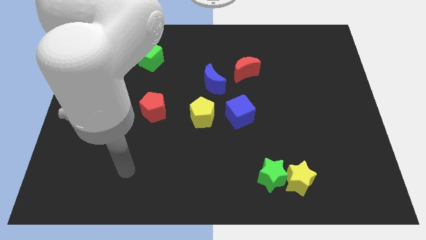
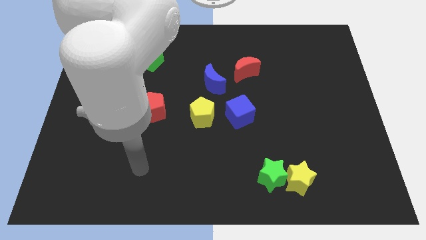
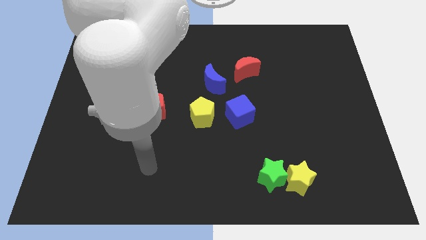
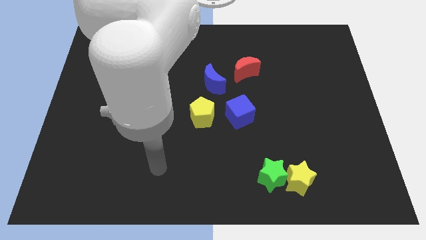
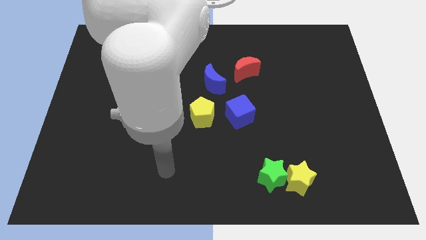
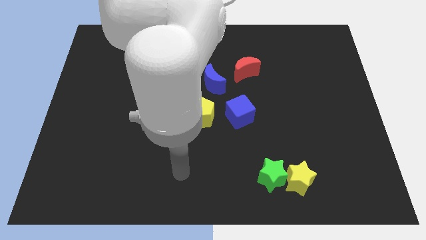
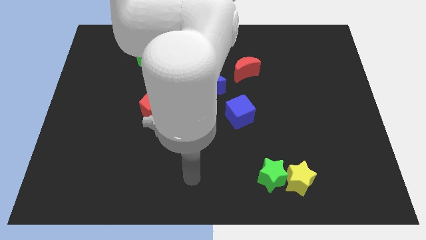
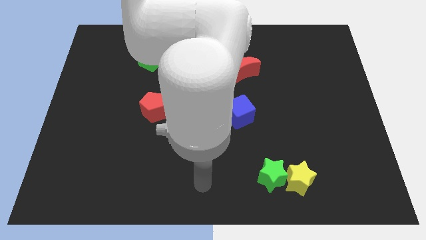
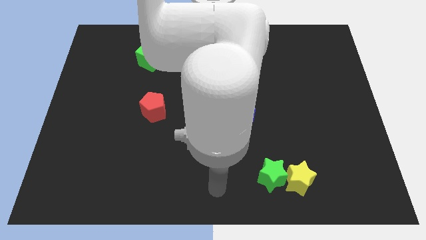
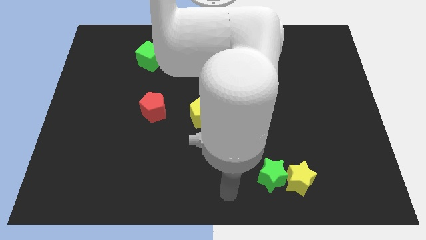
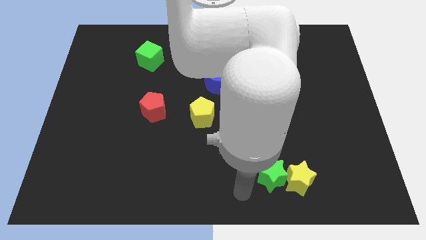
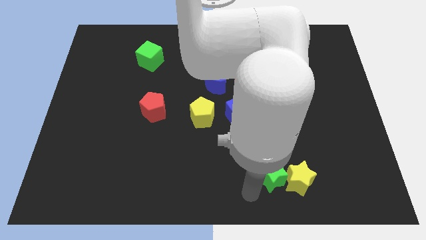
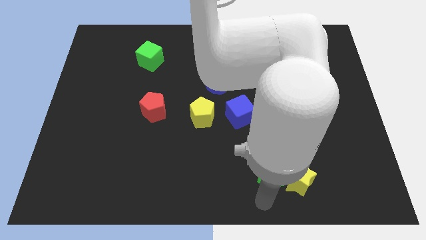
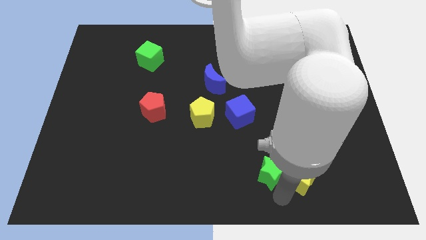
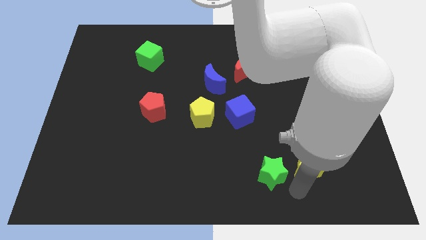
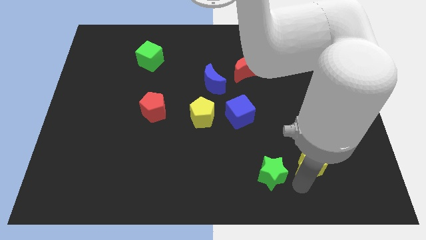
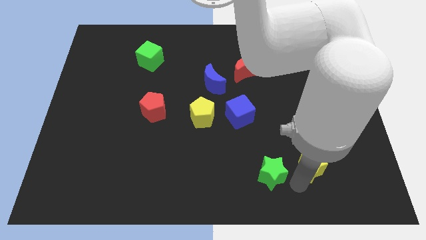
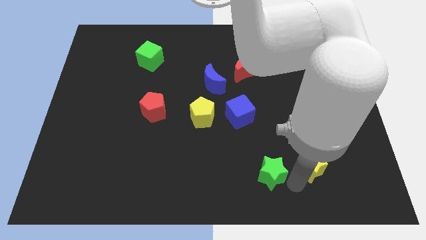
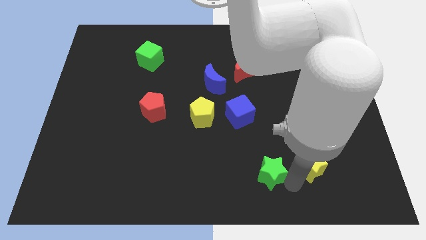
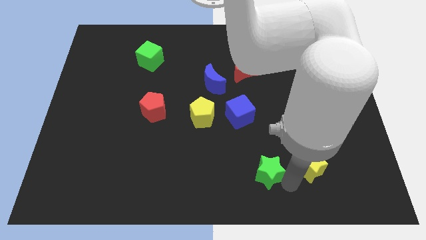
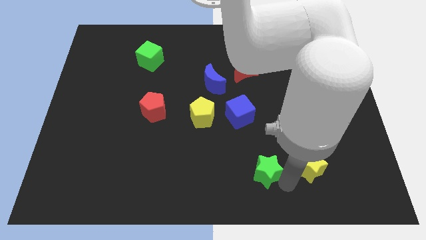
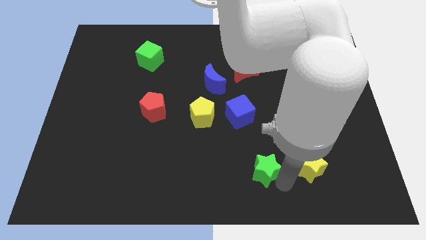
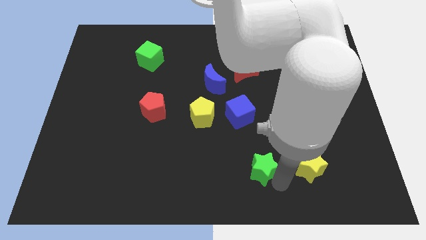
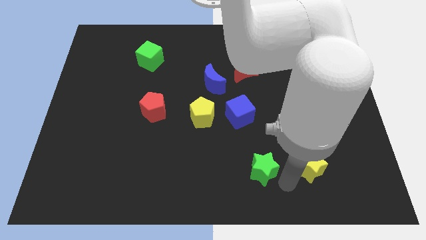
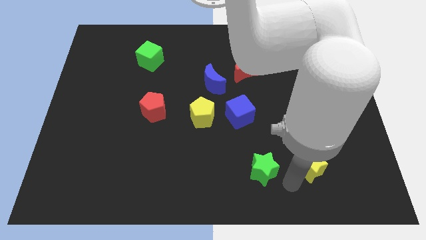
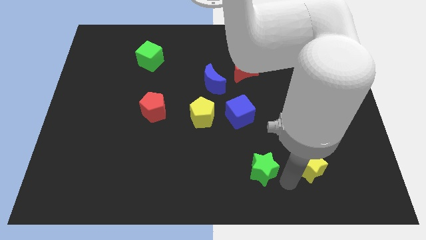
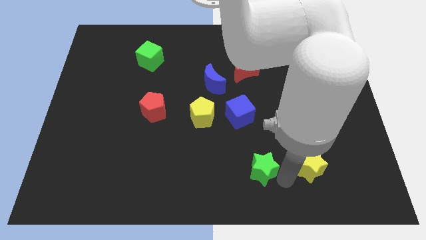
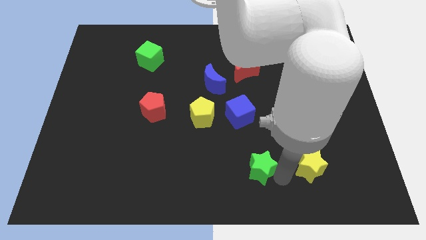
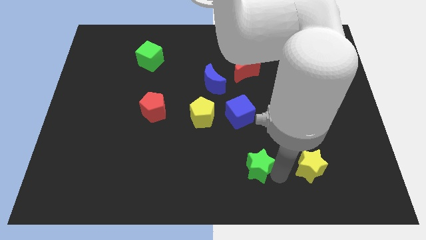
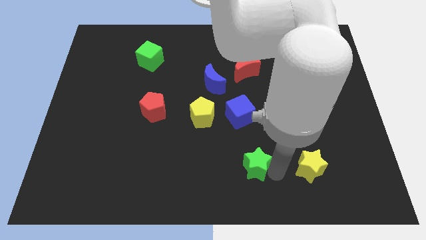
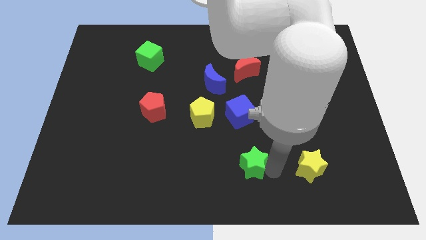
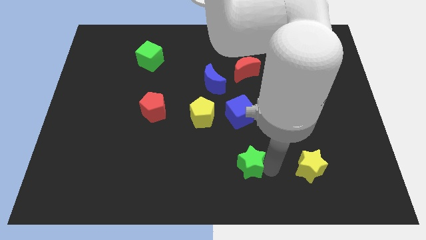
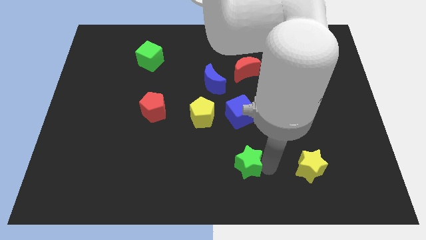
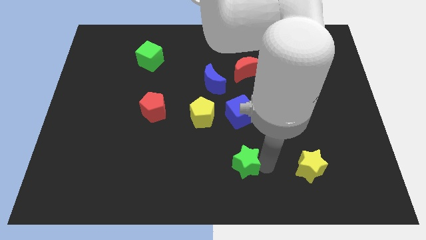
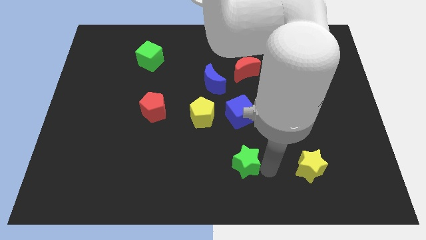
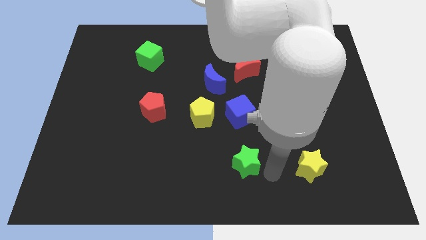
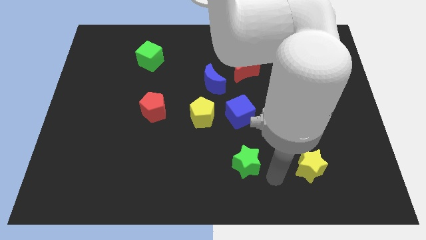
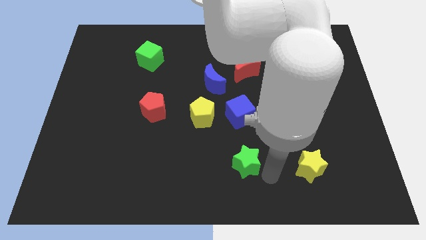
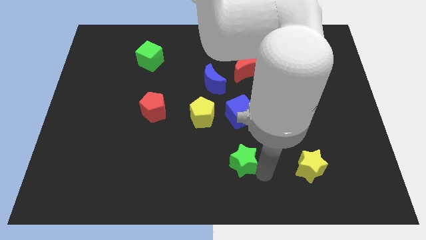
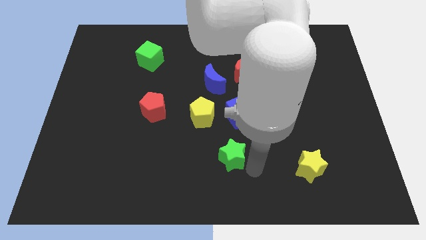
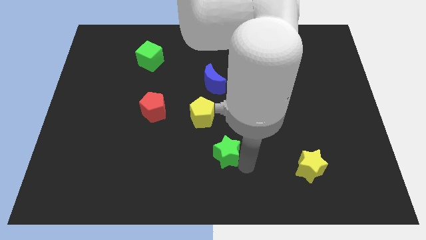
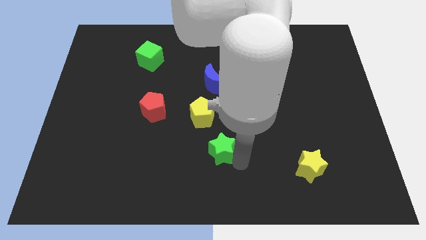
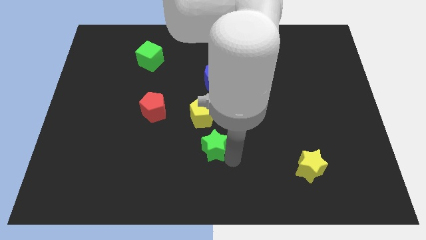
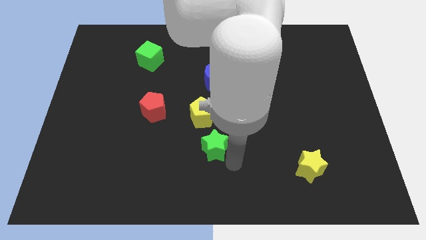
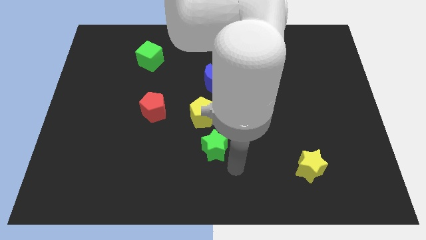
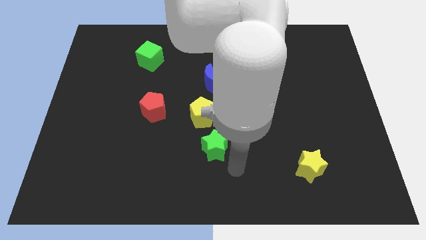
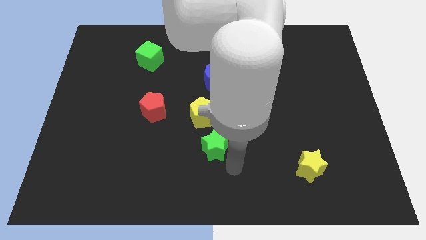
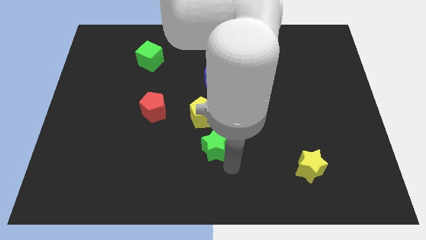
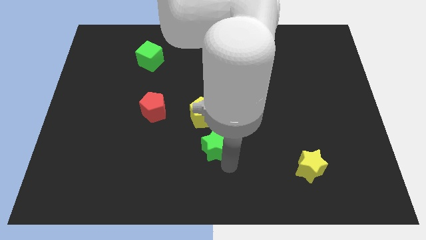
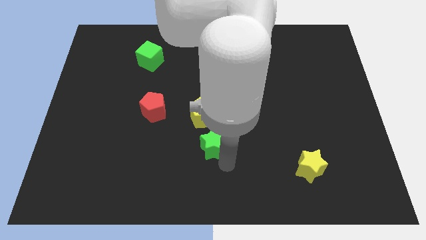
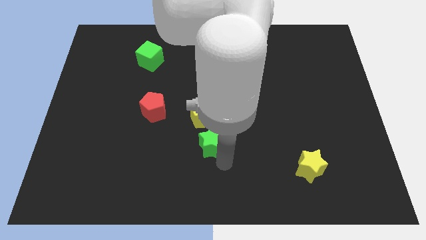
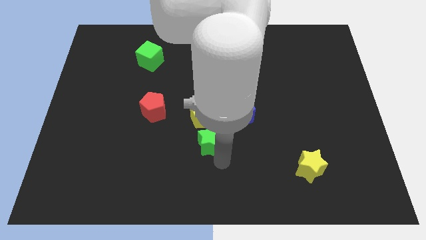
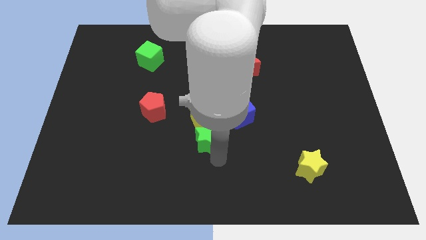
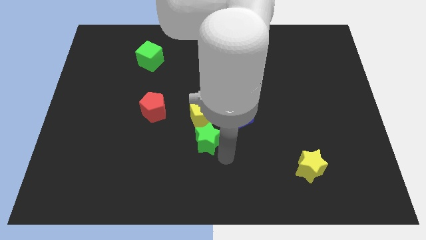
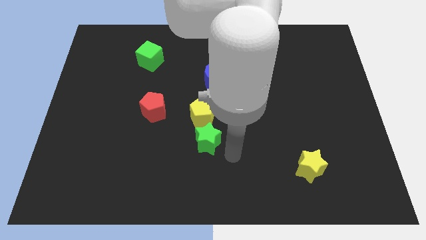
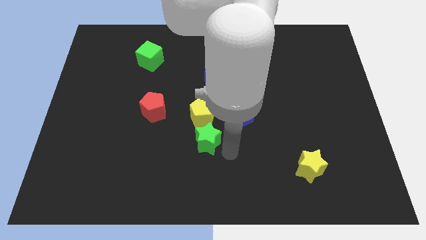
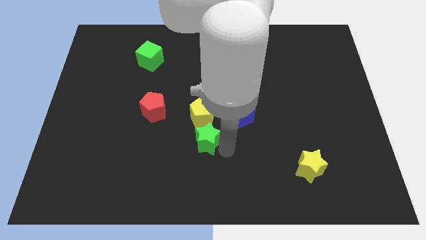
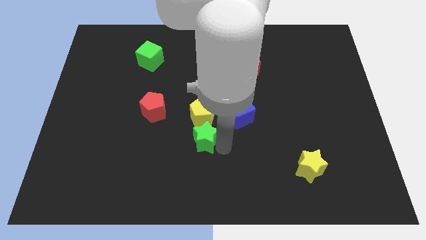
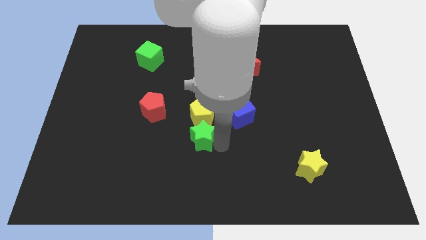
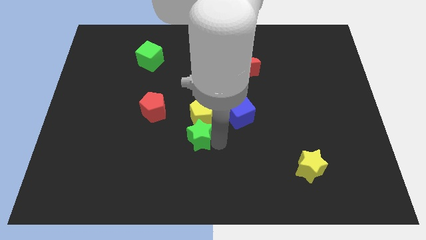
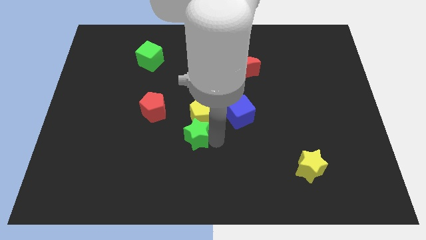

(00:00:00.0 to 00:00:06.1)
push the green star to the bottom right of the red pentagon

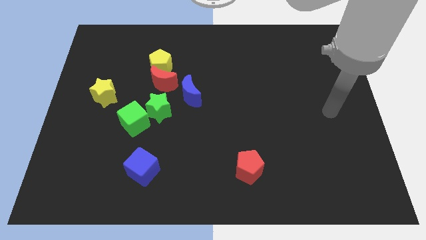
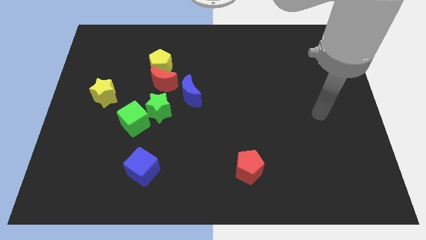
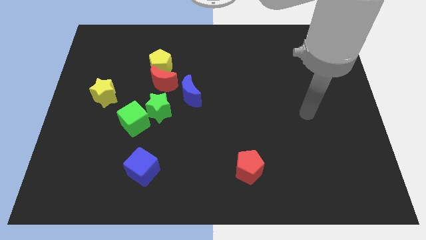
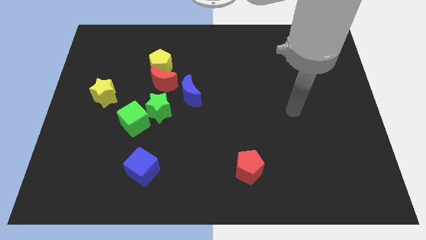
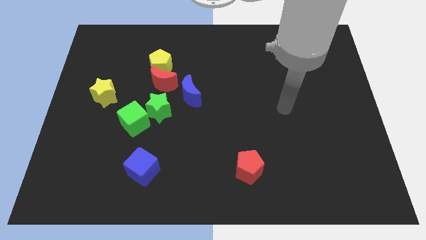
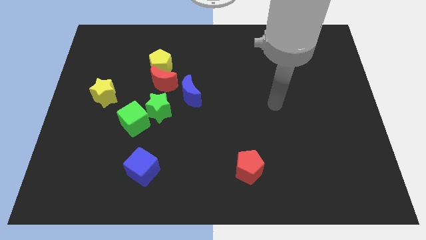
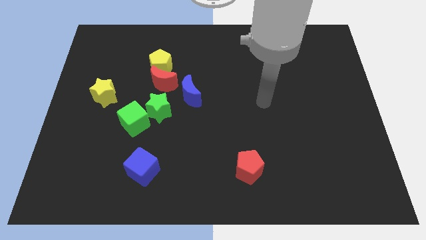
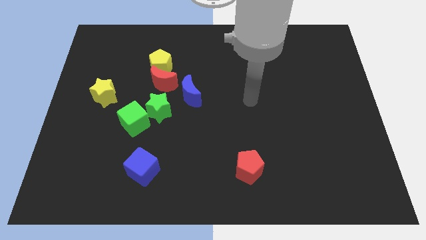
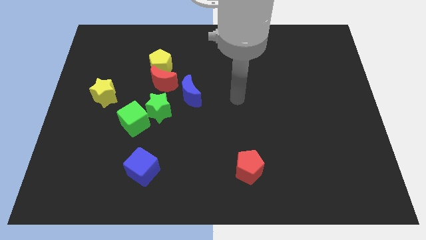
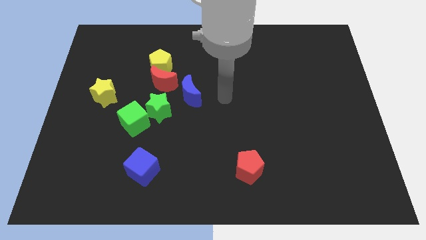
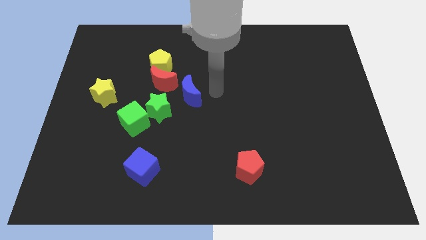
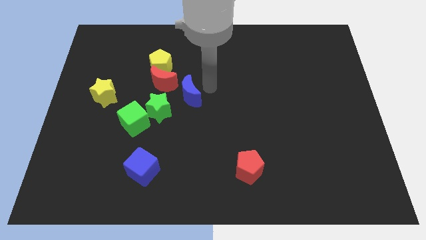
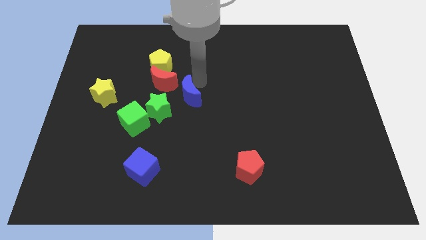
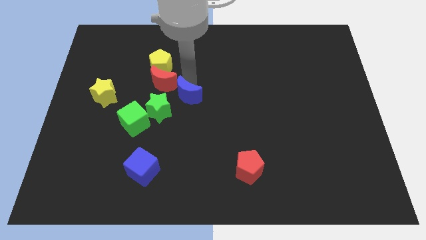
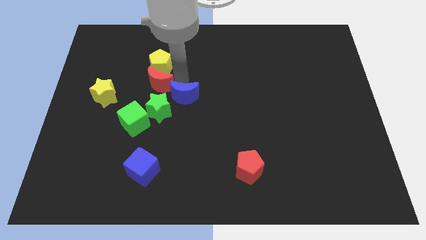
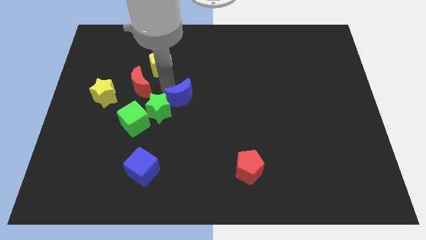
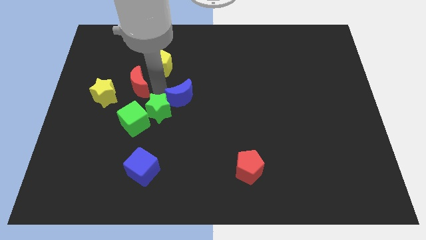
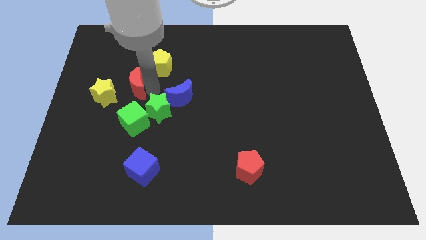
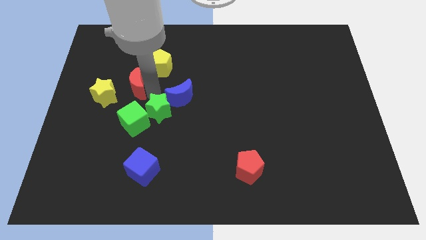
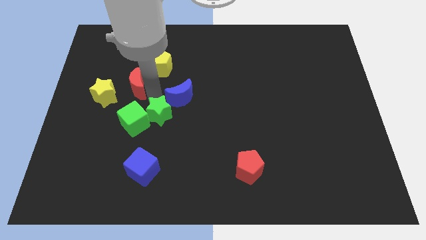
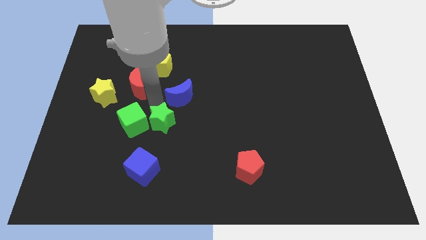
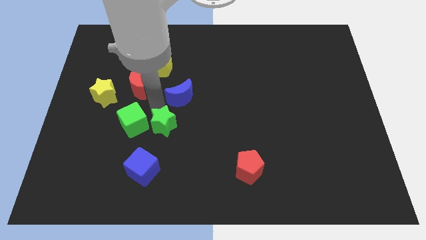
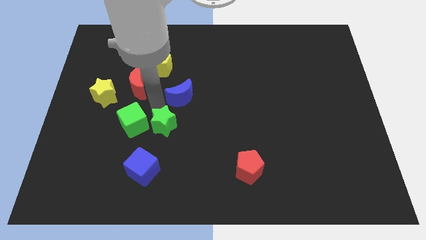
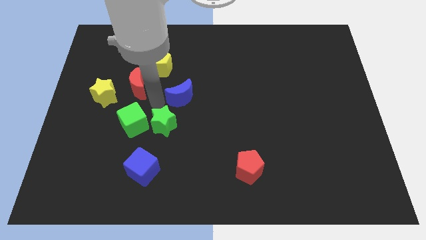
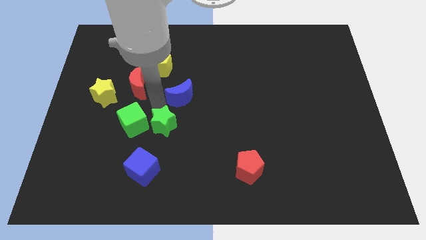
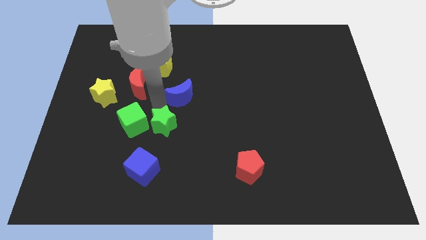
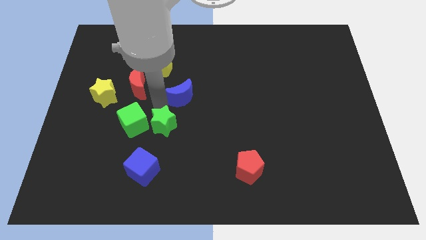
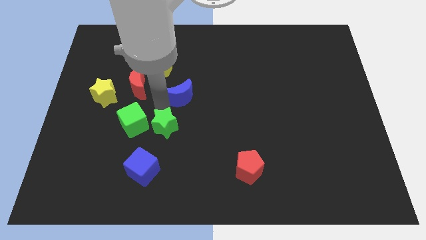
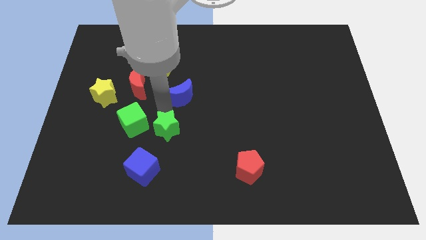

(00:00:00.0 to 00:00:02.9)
push the green star to the top right of the blue cube
